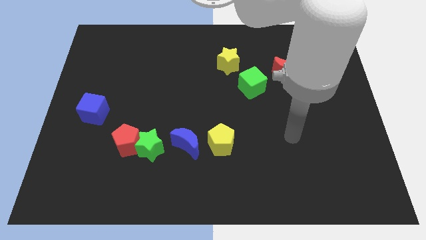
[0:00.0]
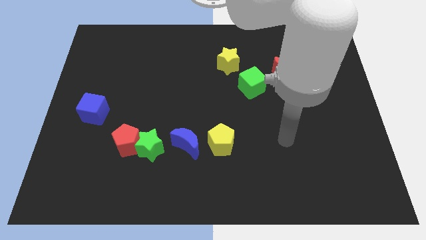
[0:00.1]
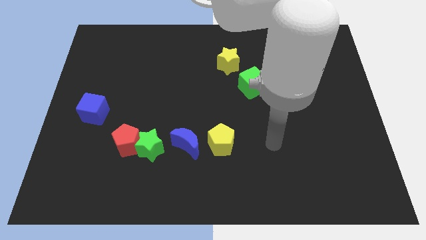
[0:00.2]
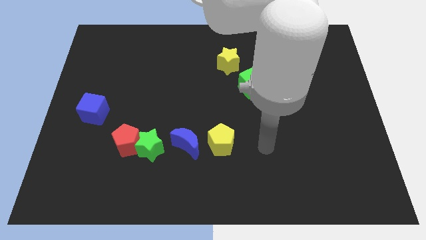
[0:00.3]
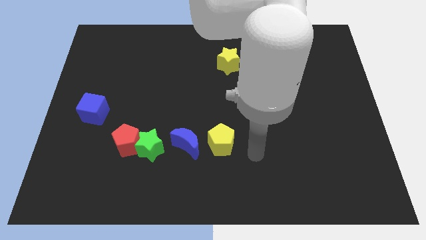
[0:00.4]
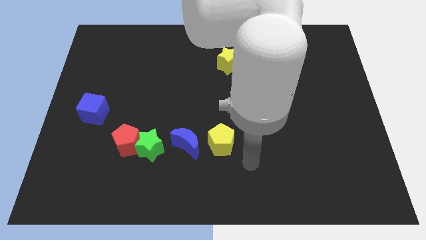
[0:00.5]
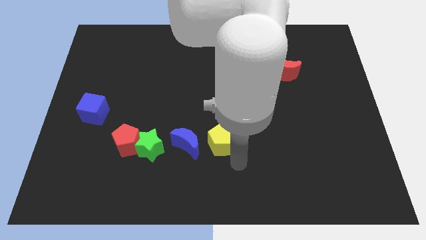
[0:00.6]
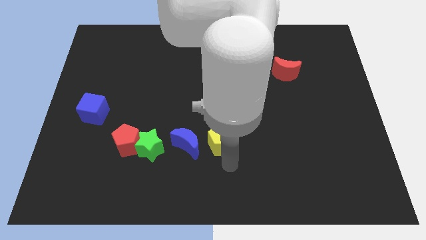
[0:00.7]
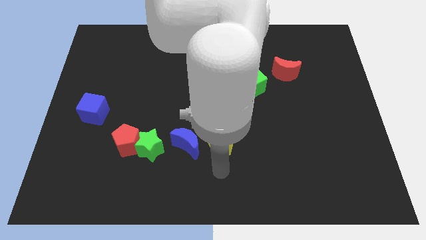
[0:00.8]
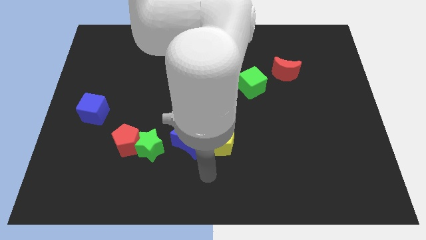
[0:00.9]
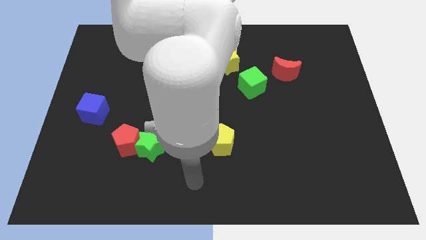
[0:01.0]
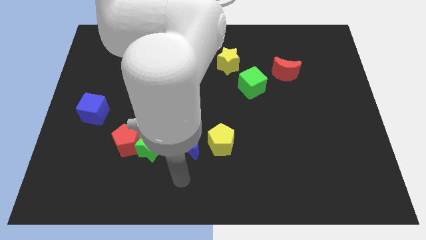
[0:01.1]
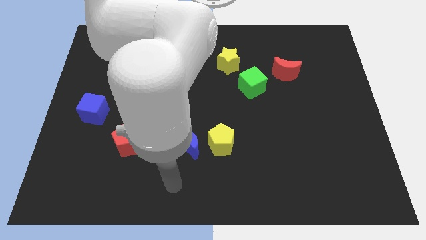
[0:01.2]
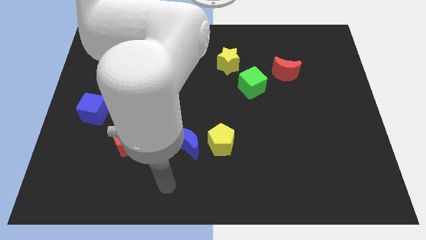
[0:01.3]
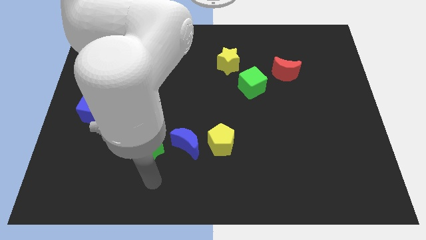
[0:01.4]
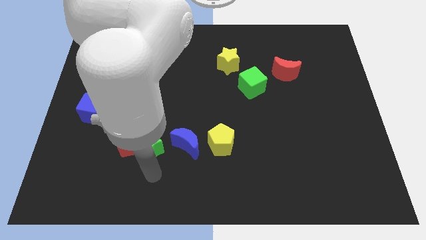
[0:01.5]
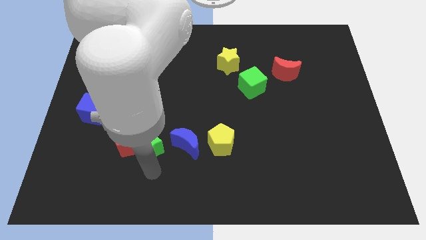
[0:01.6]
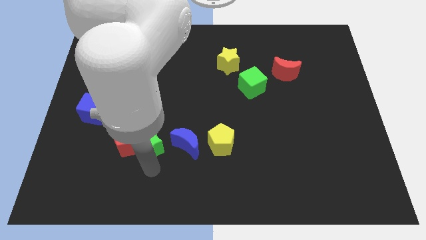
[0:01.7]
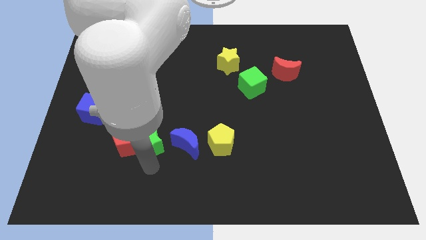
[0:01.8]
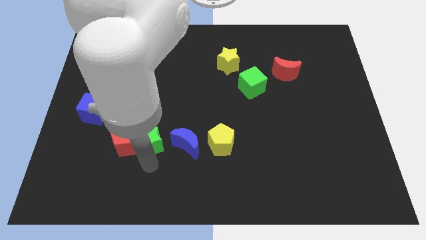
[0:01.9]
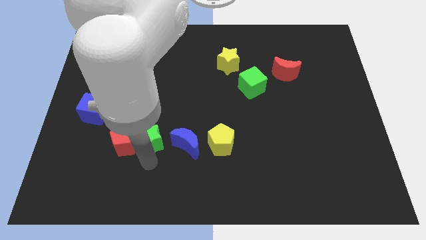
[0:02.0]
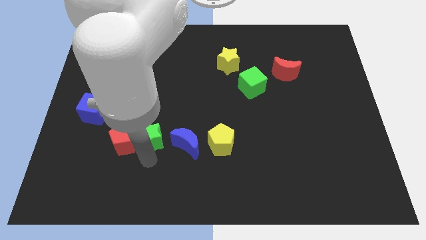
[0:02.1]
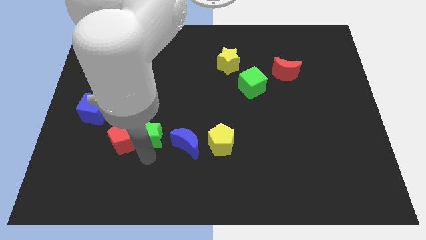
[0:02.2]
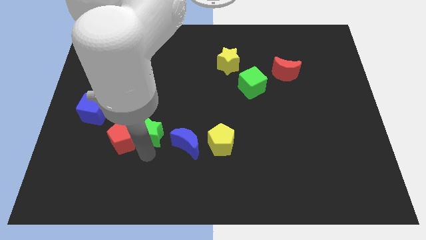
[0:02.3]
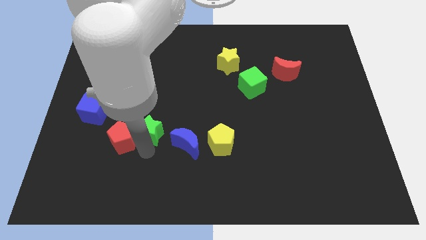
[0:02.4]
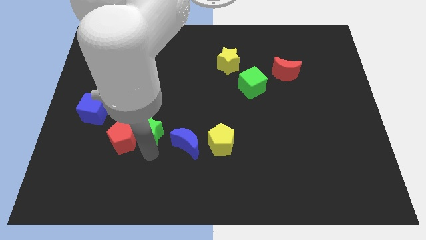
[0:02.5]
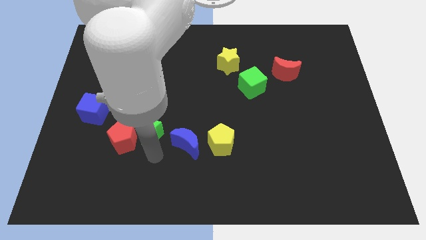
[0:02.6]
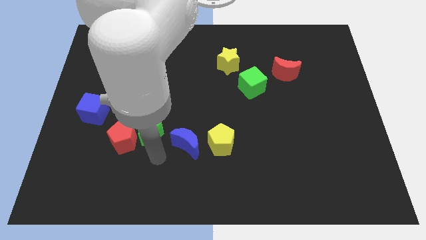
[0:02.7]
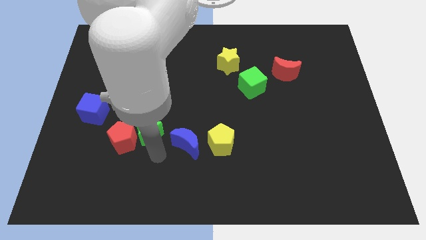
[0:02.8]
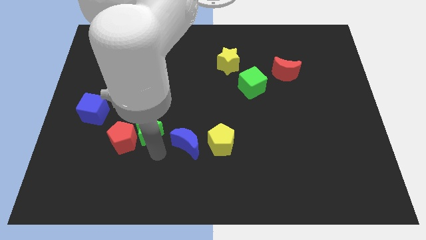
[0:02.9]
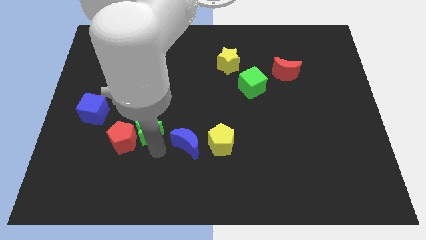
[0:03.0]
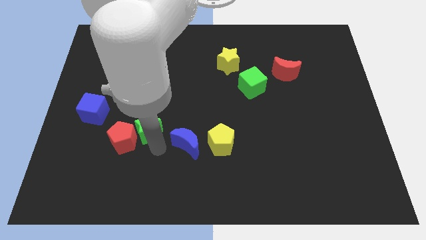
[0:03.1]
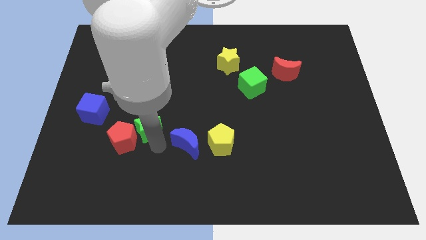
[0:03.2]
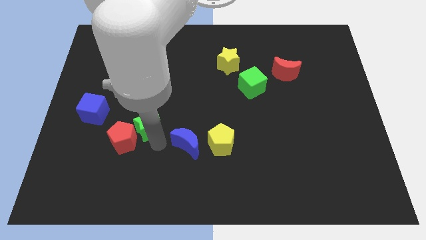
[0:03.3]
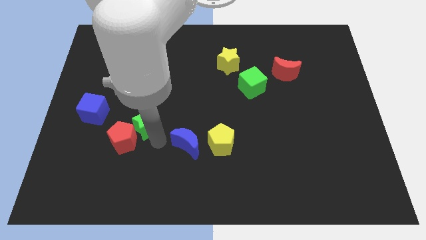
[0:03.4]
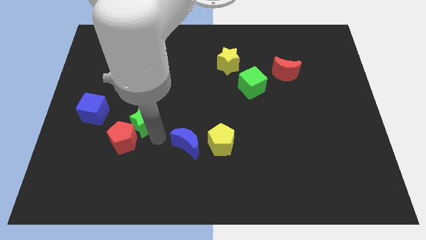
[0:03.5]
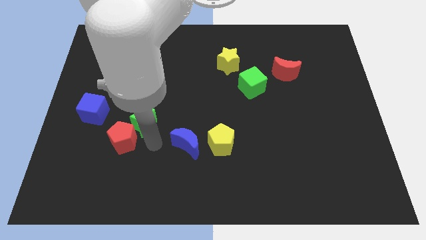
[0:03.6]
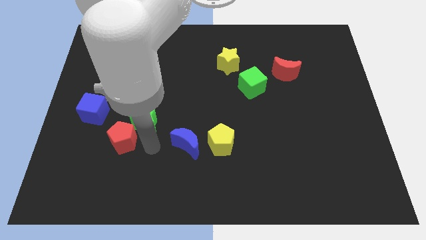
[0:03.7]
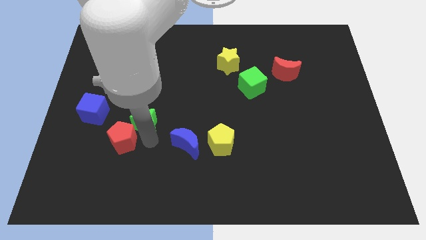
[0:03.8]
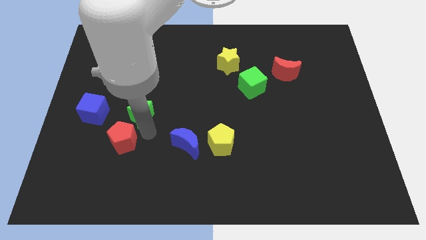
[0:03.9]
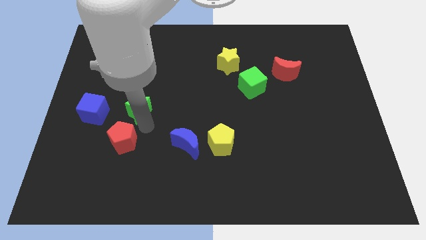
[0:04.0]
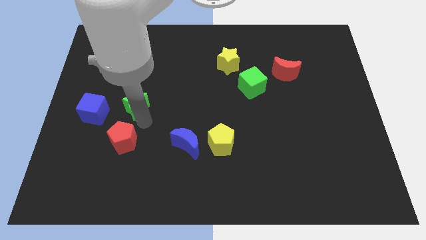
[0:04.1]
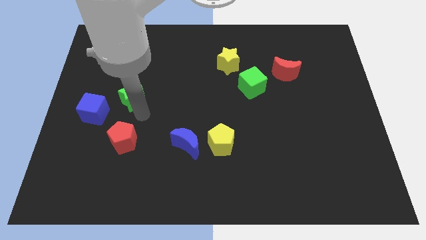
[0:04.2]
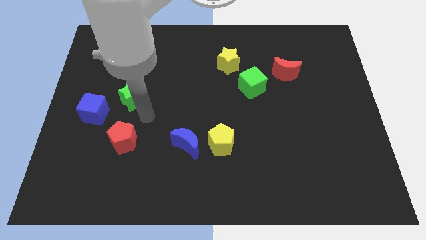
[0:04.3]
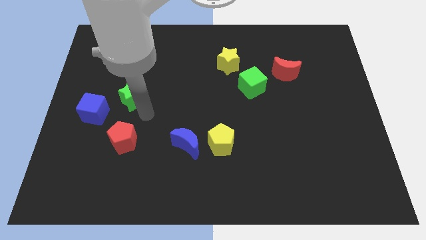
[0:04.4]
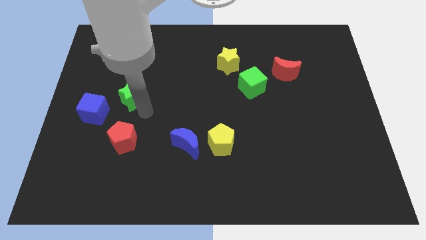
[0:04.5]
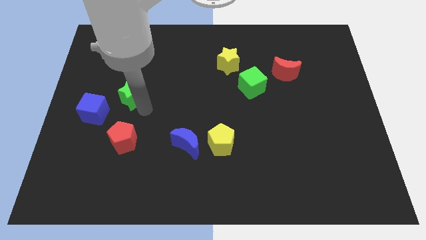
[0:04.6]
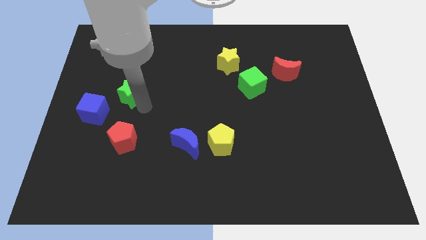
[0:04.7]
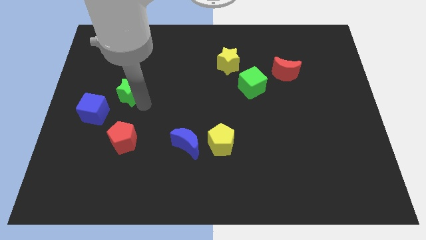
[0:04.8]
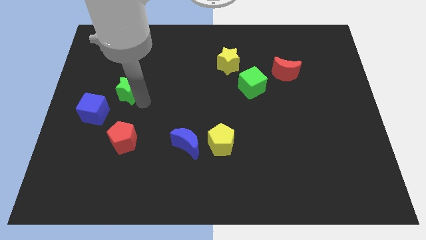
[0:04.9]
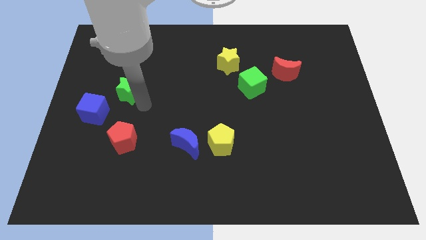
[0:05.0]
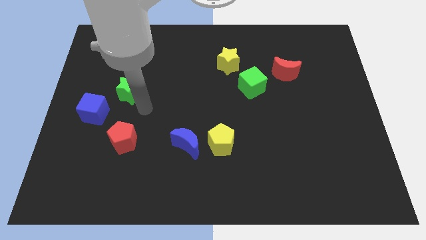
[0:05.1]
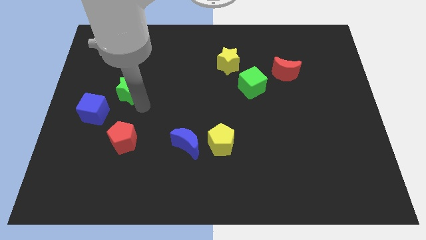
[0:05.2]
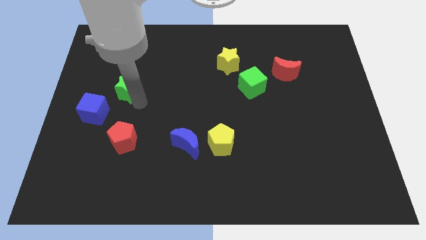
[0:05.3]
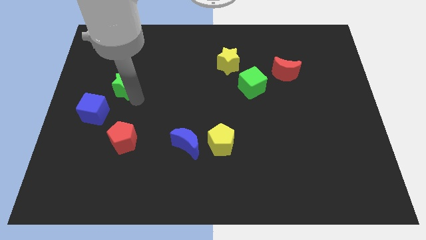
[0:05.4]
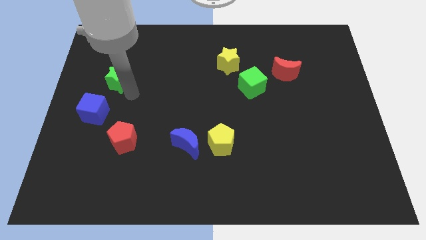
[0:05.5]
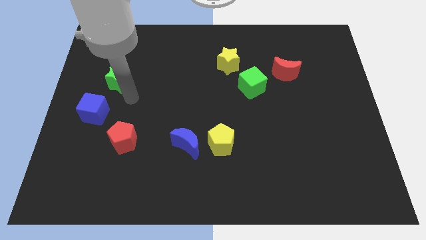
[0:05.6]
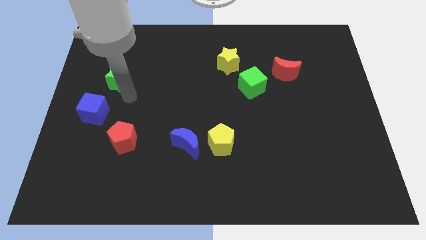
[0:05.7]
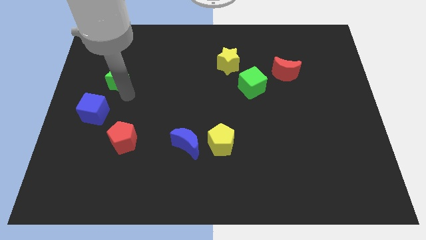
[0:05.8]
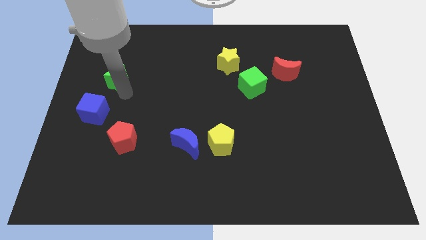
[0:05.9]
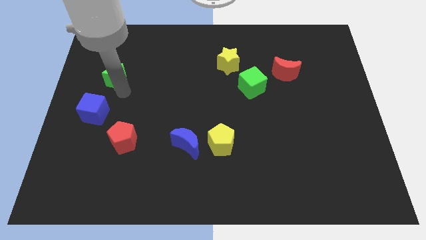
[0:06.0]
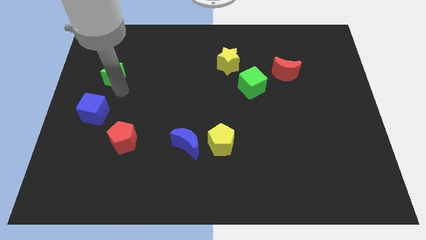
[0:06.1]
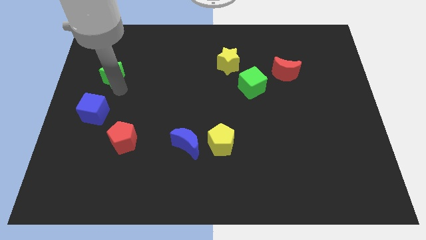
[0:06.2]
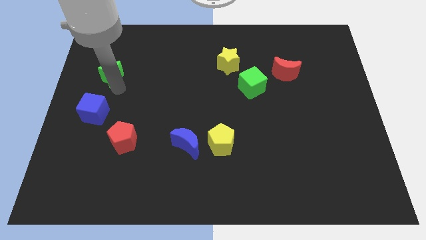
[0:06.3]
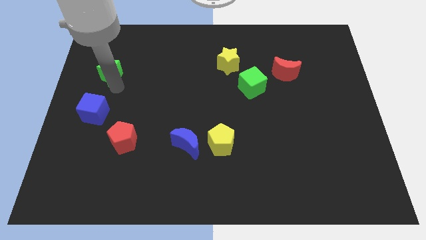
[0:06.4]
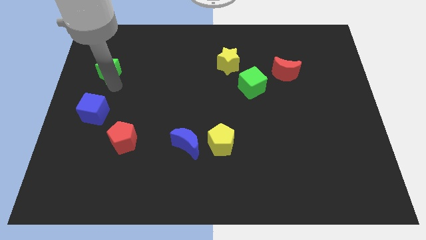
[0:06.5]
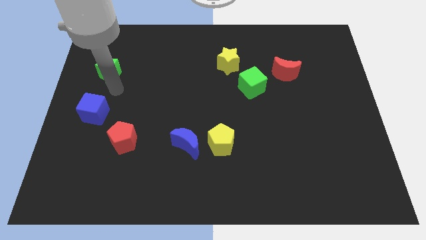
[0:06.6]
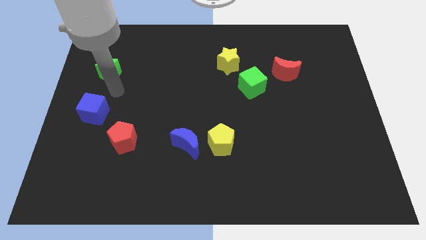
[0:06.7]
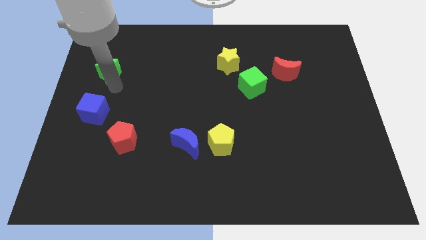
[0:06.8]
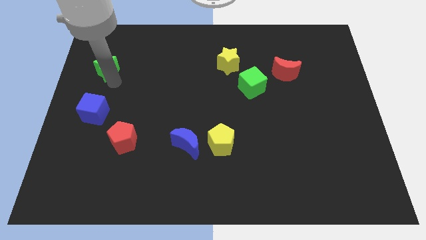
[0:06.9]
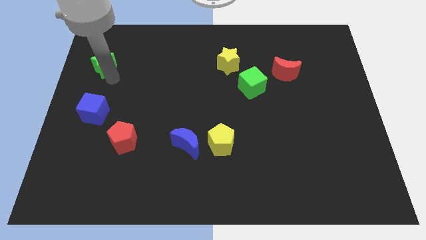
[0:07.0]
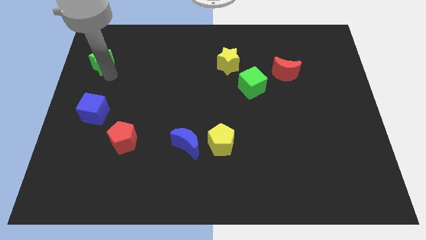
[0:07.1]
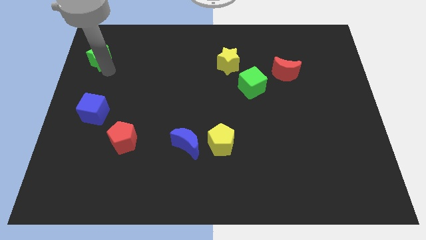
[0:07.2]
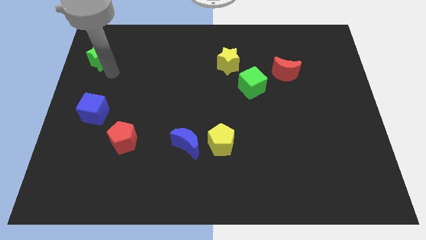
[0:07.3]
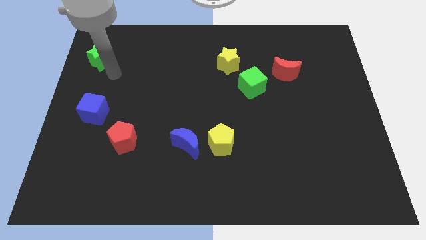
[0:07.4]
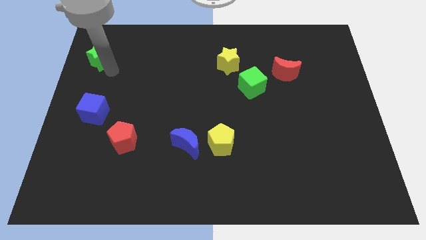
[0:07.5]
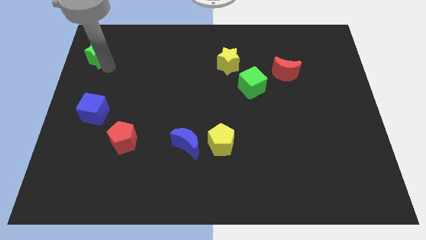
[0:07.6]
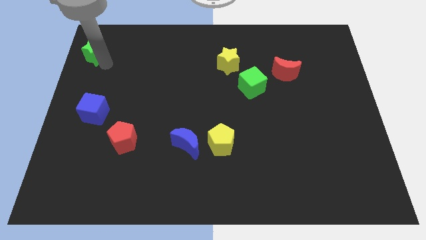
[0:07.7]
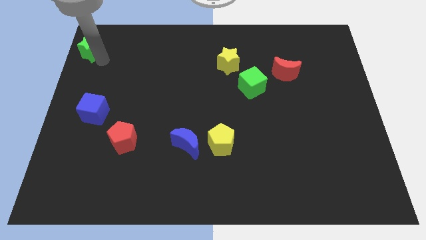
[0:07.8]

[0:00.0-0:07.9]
put the green star to the top left corner
